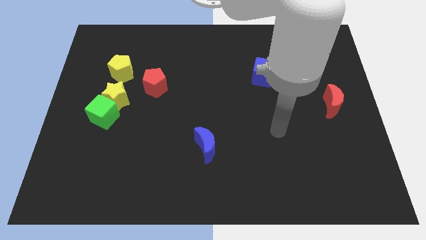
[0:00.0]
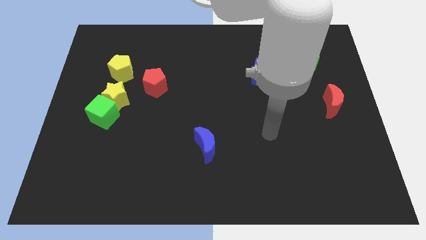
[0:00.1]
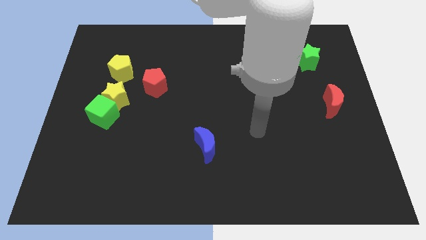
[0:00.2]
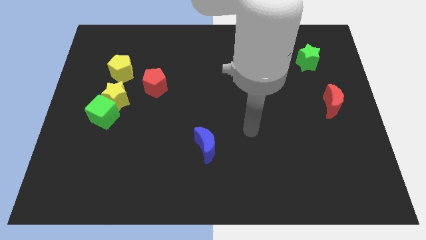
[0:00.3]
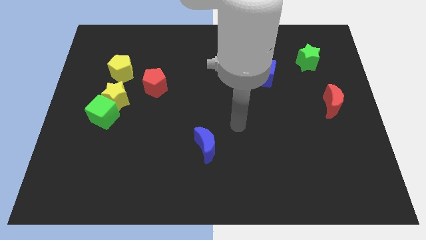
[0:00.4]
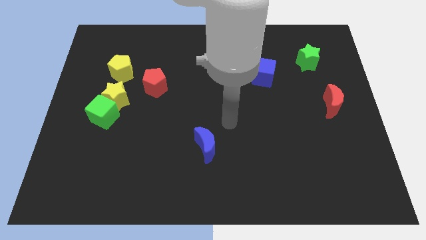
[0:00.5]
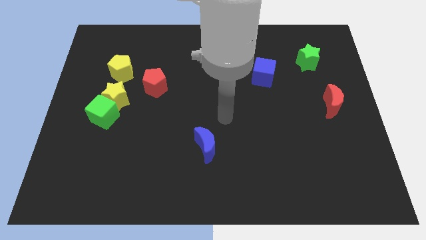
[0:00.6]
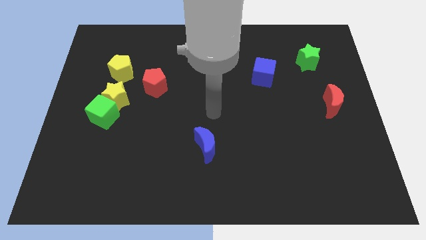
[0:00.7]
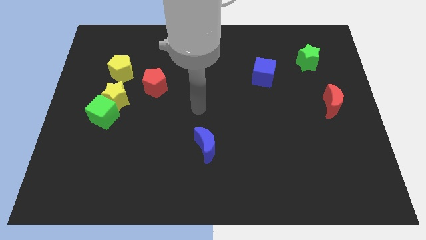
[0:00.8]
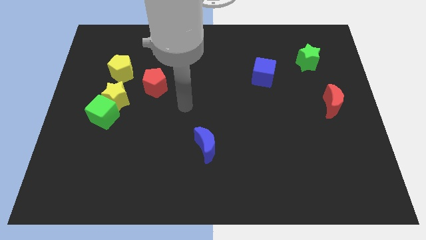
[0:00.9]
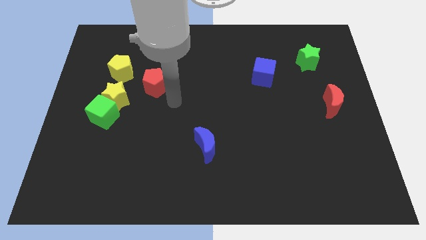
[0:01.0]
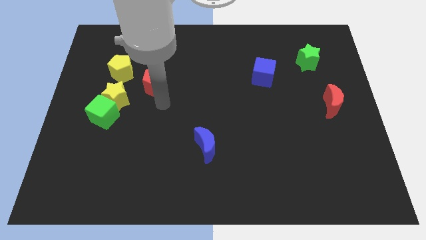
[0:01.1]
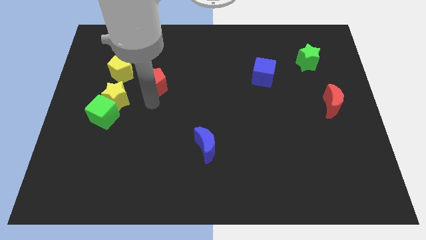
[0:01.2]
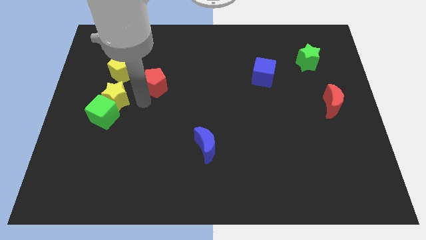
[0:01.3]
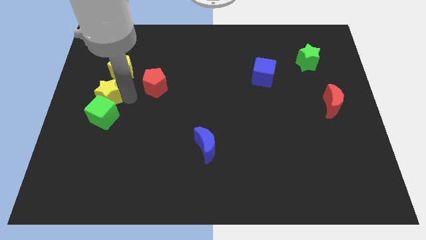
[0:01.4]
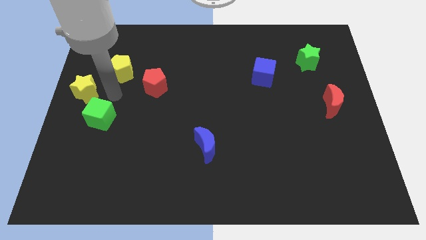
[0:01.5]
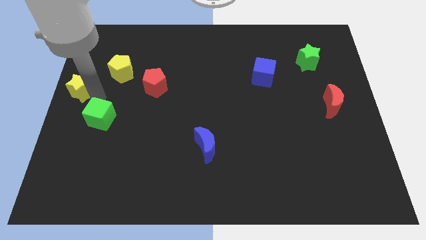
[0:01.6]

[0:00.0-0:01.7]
separate the green cube from the yellow star

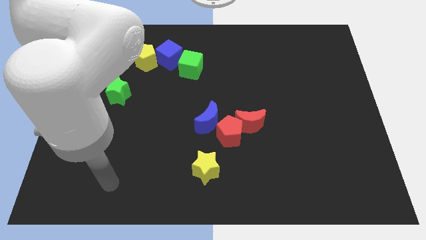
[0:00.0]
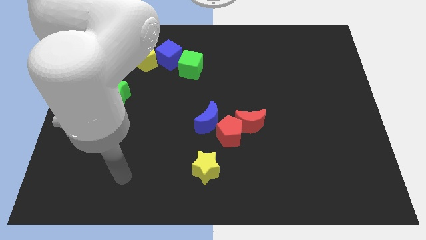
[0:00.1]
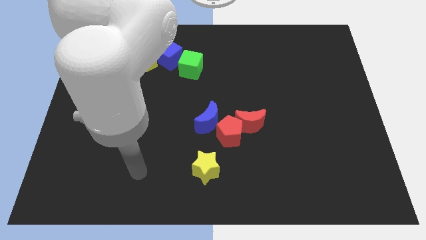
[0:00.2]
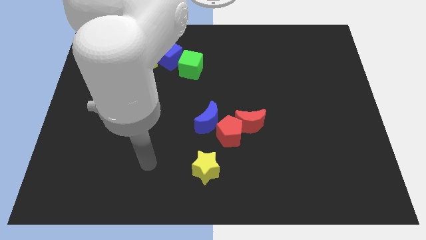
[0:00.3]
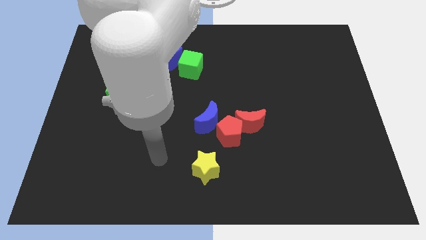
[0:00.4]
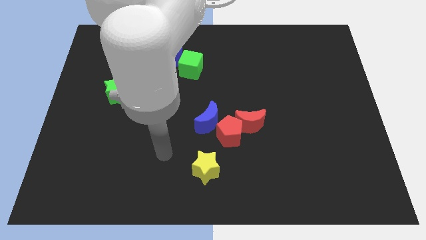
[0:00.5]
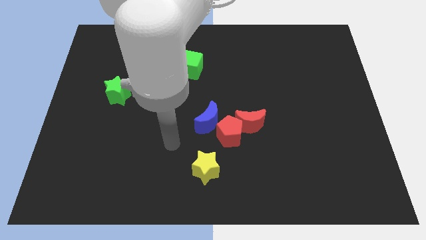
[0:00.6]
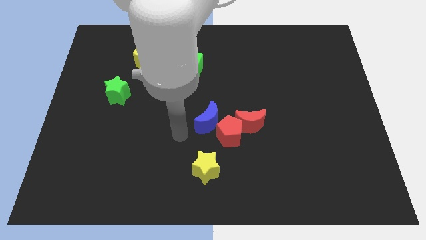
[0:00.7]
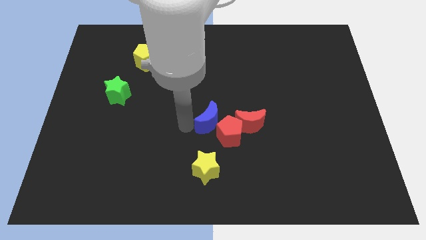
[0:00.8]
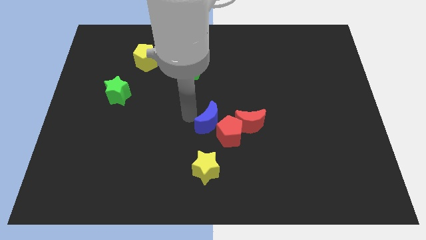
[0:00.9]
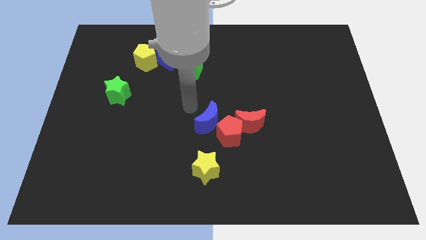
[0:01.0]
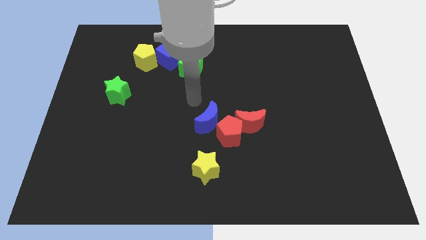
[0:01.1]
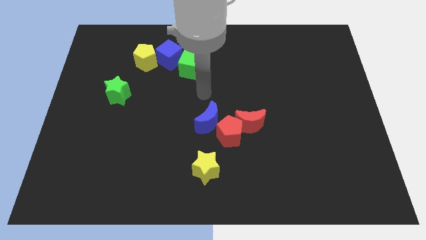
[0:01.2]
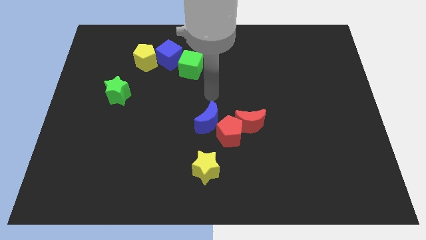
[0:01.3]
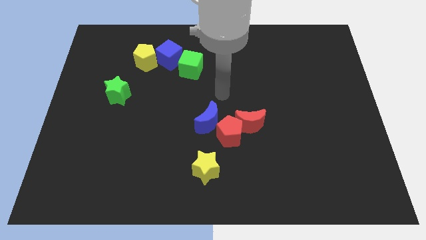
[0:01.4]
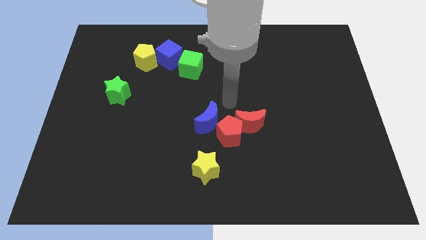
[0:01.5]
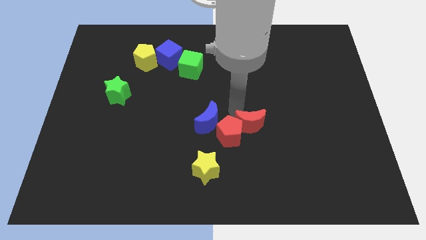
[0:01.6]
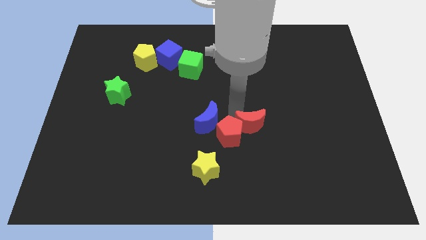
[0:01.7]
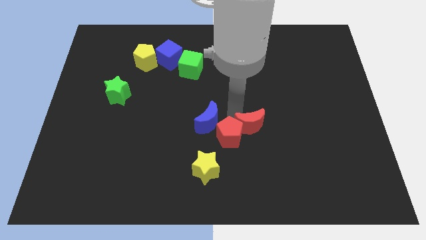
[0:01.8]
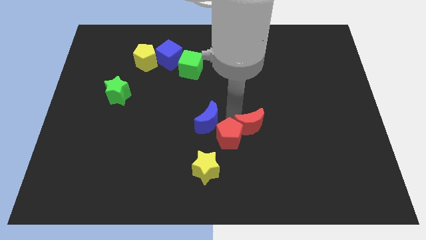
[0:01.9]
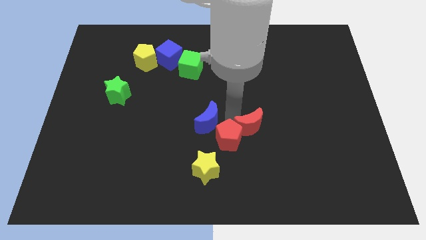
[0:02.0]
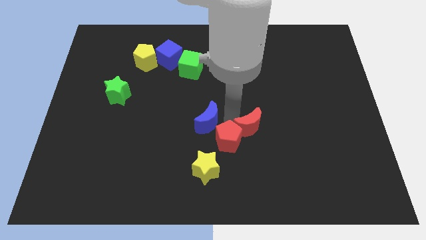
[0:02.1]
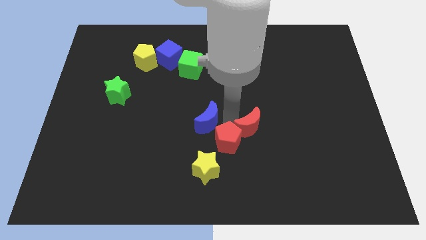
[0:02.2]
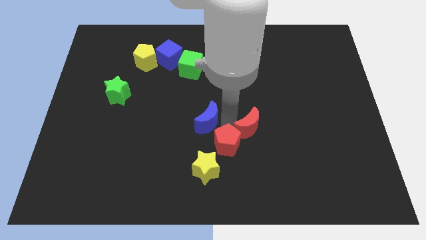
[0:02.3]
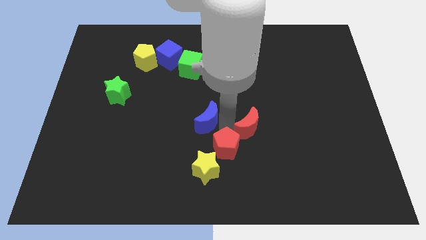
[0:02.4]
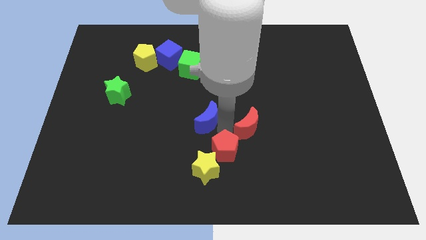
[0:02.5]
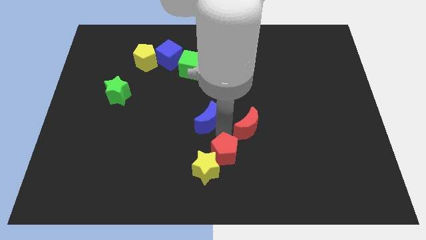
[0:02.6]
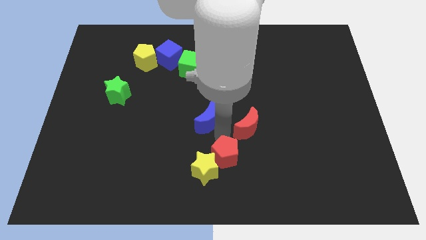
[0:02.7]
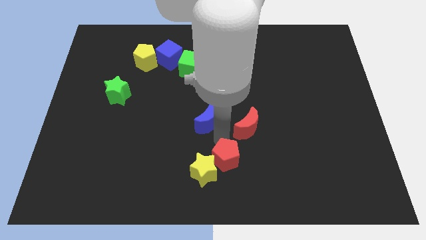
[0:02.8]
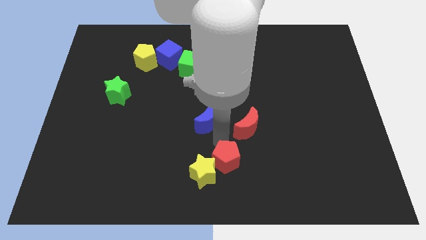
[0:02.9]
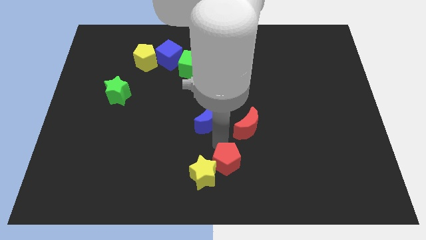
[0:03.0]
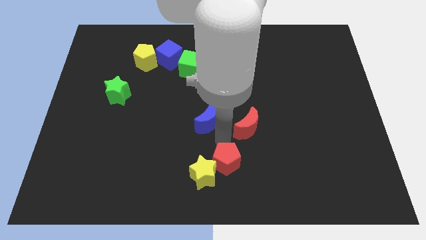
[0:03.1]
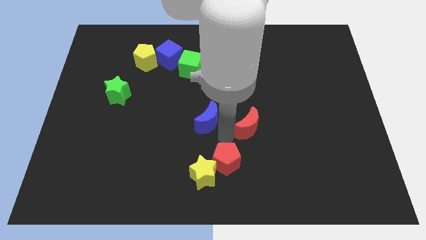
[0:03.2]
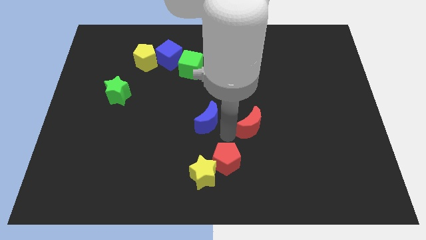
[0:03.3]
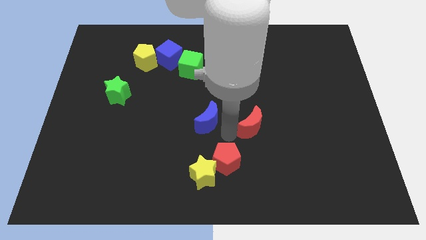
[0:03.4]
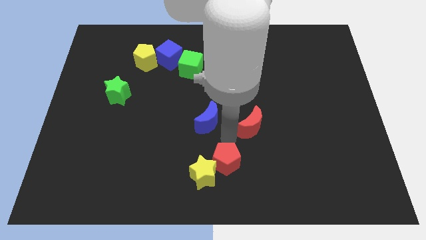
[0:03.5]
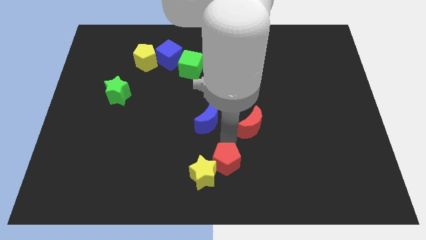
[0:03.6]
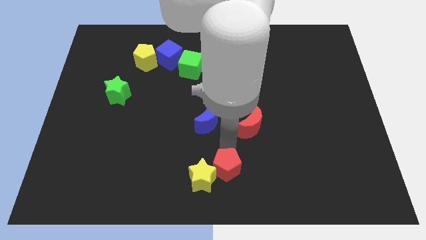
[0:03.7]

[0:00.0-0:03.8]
separate the red pentagon from the red moon and blue moon

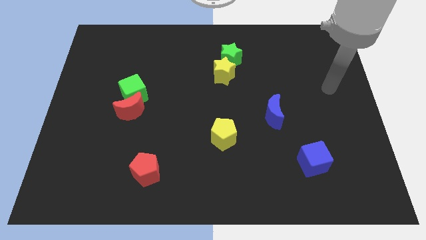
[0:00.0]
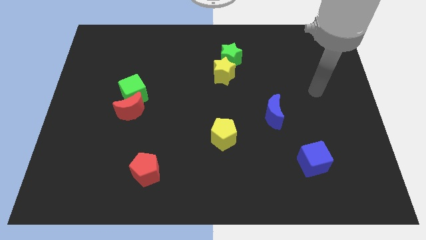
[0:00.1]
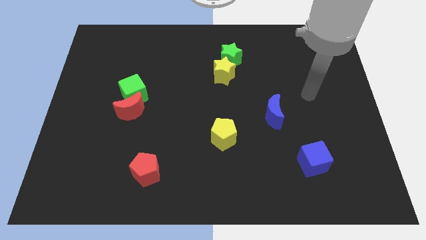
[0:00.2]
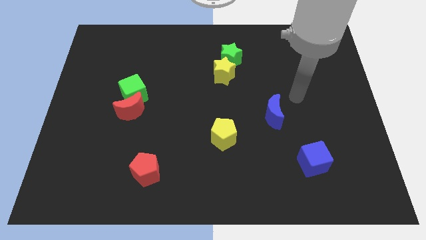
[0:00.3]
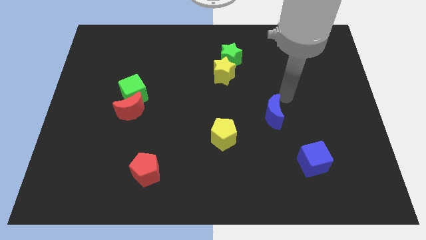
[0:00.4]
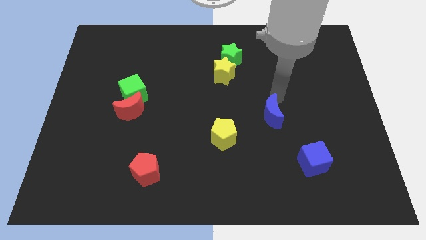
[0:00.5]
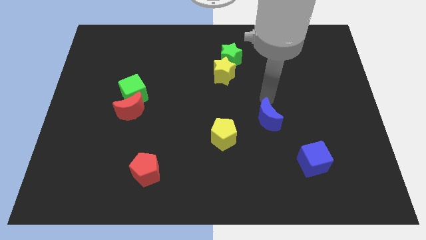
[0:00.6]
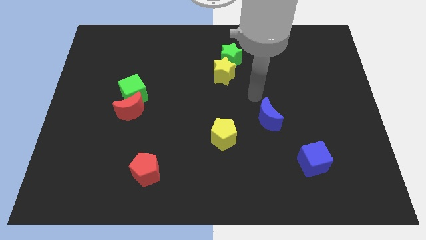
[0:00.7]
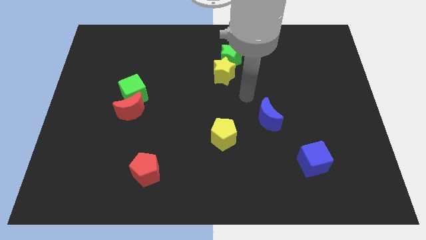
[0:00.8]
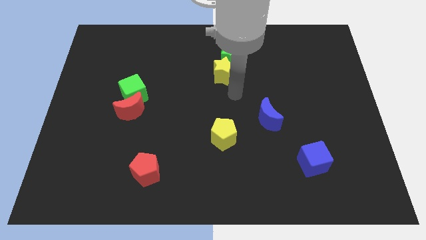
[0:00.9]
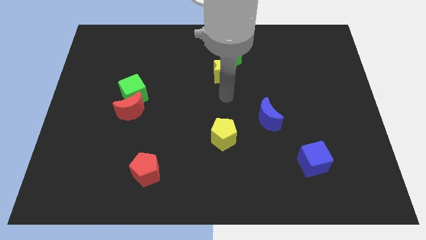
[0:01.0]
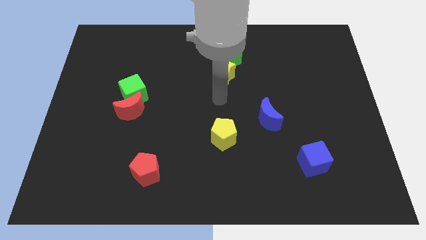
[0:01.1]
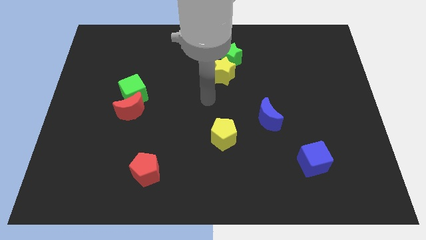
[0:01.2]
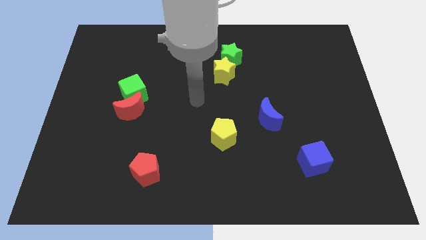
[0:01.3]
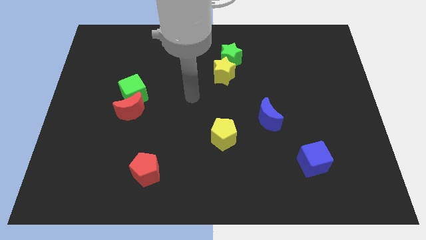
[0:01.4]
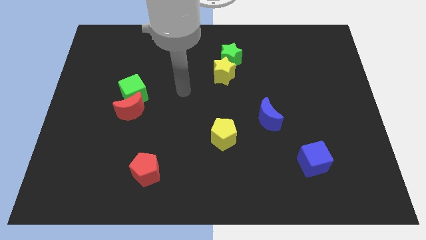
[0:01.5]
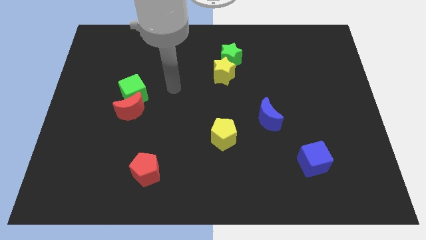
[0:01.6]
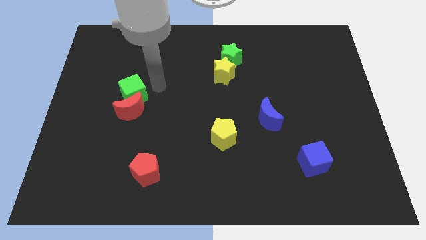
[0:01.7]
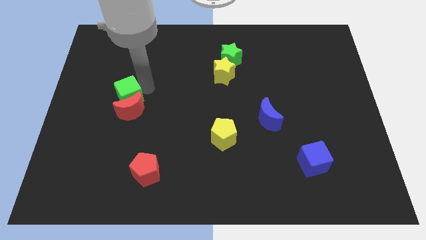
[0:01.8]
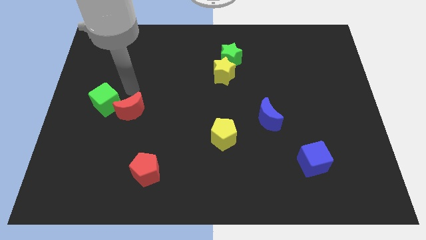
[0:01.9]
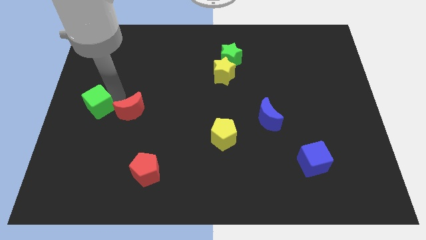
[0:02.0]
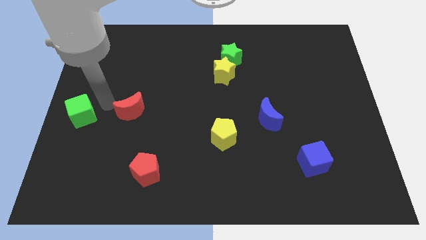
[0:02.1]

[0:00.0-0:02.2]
pull the red moon apart from the green cube

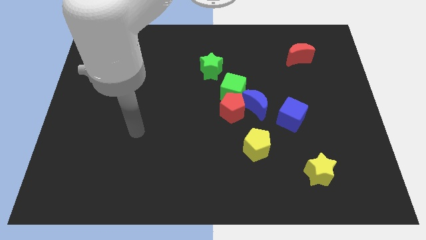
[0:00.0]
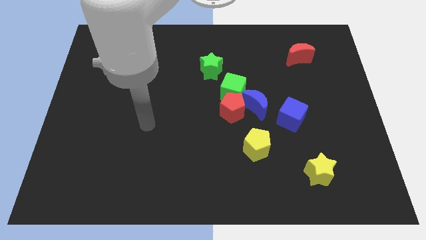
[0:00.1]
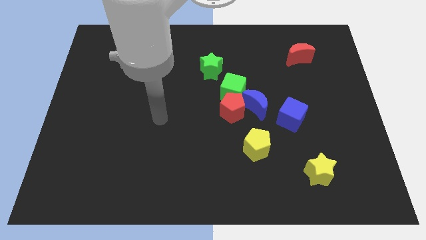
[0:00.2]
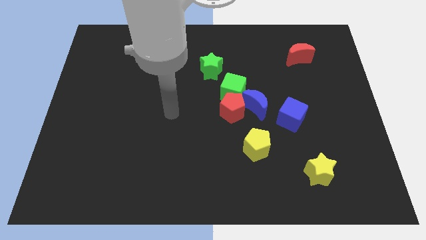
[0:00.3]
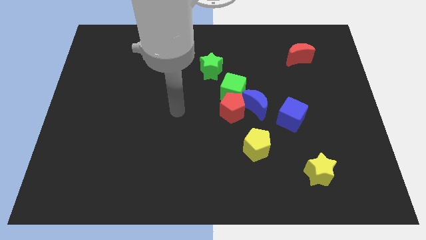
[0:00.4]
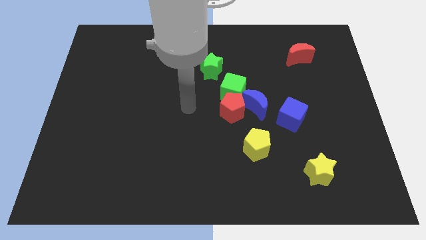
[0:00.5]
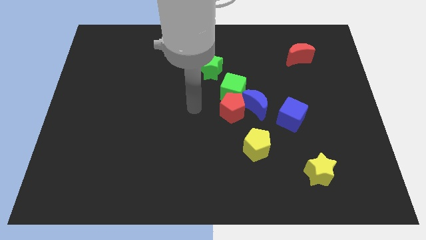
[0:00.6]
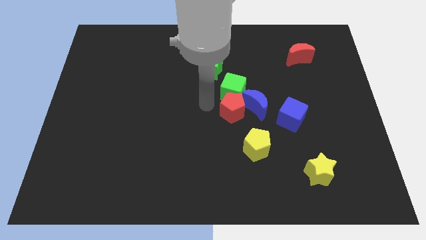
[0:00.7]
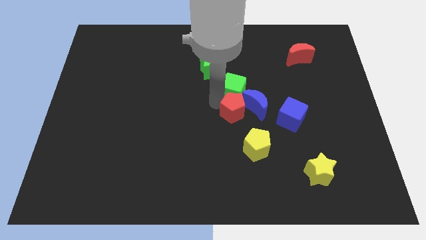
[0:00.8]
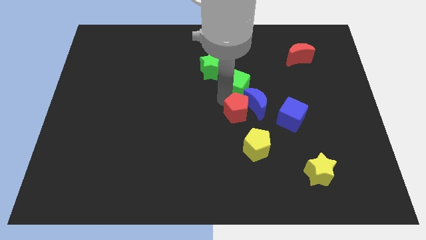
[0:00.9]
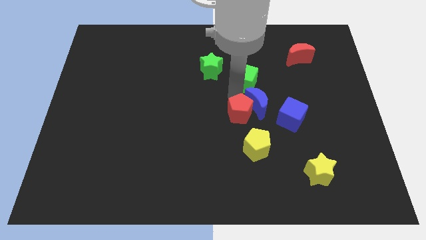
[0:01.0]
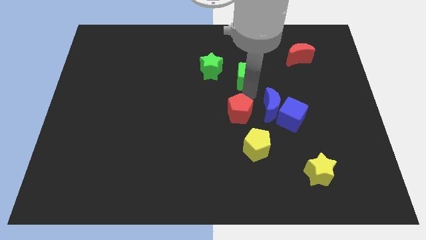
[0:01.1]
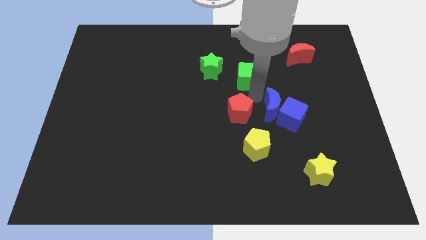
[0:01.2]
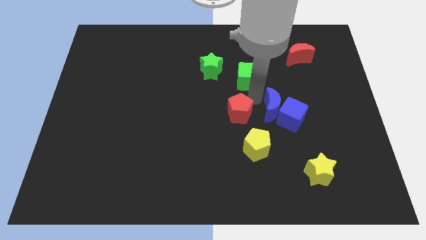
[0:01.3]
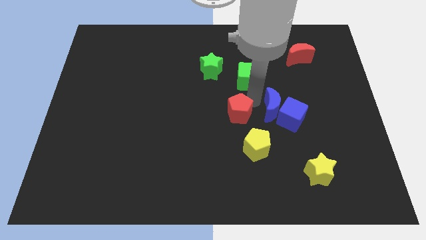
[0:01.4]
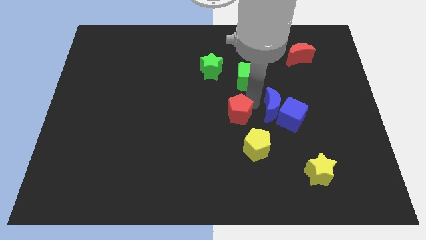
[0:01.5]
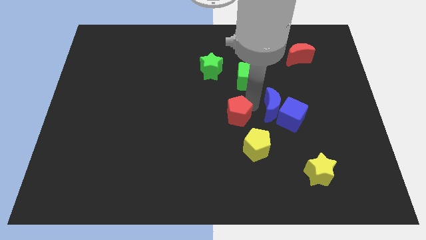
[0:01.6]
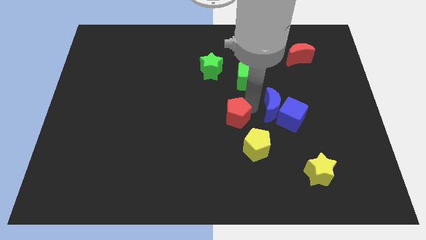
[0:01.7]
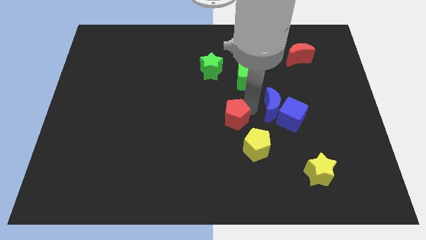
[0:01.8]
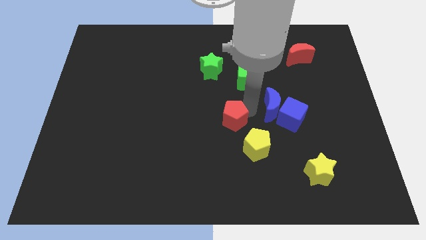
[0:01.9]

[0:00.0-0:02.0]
separate the red pentagon from the blue moon and green cube
